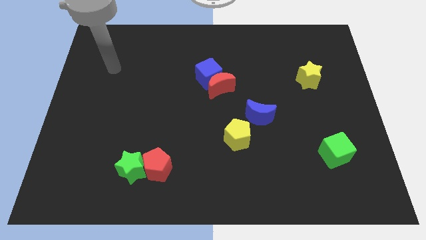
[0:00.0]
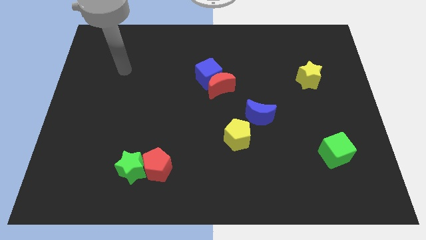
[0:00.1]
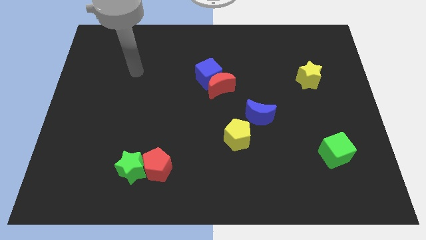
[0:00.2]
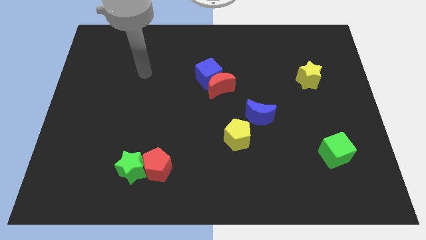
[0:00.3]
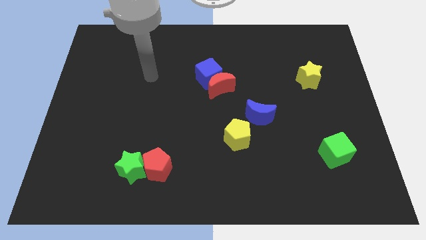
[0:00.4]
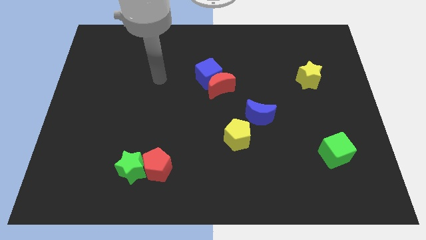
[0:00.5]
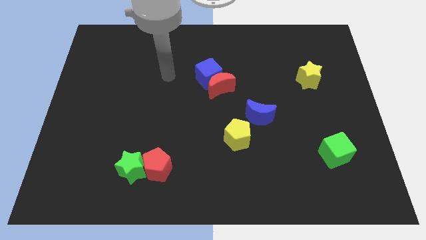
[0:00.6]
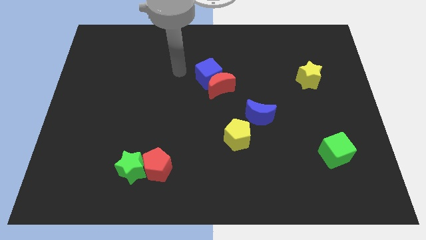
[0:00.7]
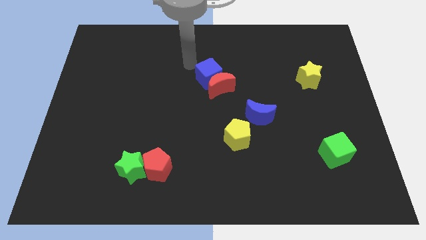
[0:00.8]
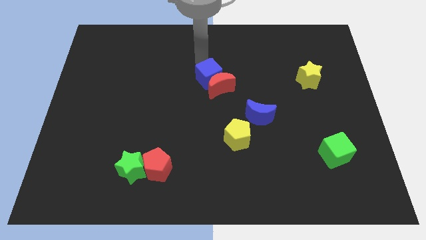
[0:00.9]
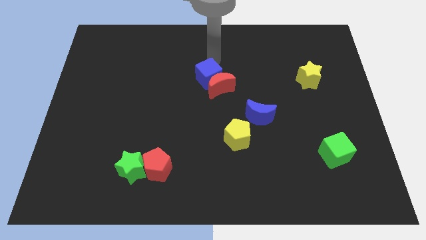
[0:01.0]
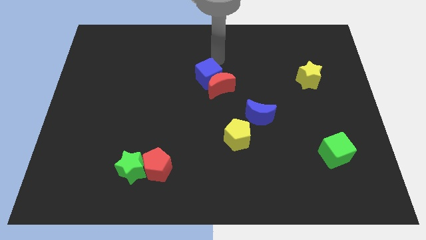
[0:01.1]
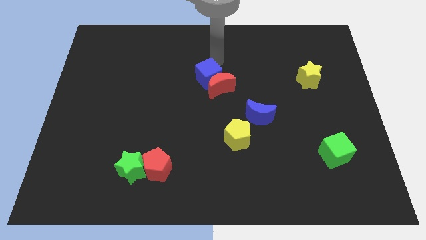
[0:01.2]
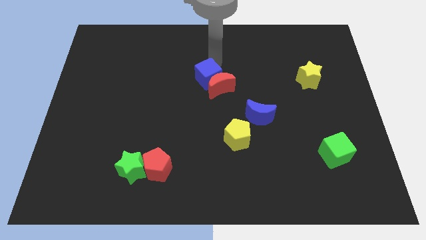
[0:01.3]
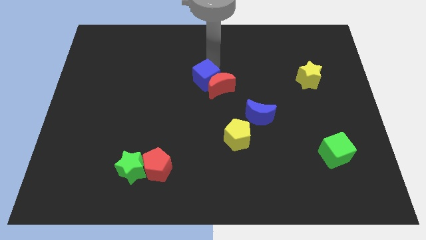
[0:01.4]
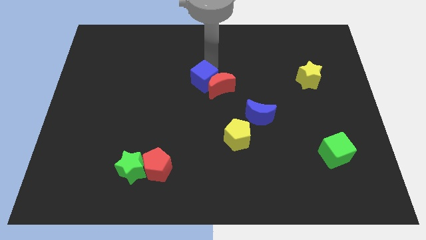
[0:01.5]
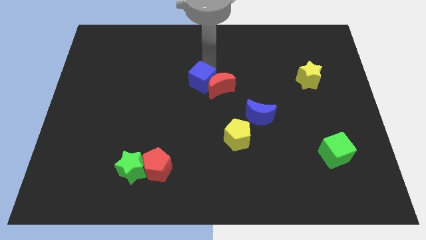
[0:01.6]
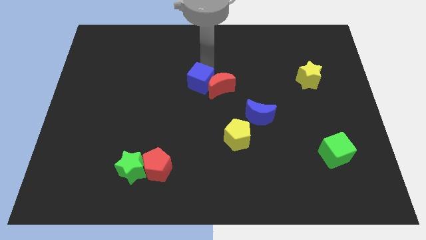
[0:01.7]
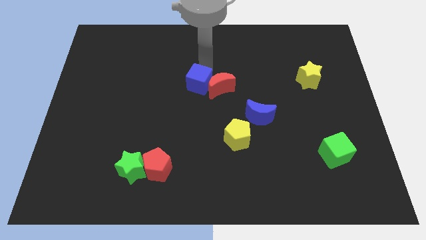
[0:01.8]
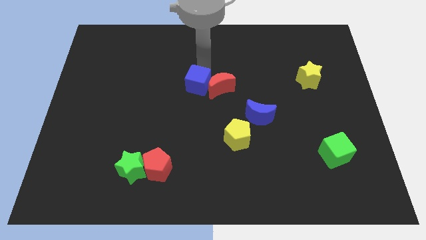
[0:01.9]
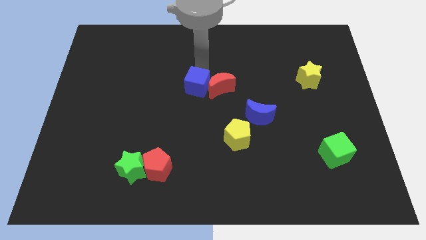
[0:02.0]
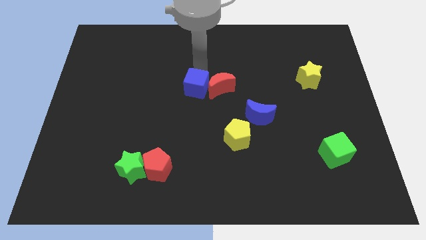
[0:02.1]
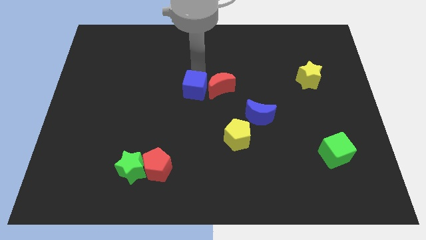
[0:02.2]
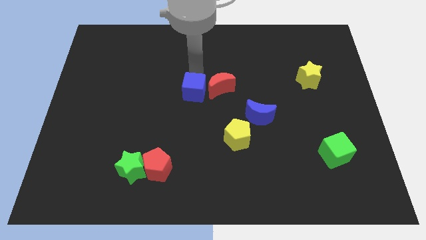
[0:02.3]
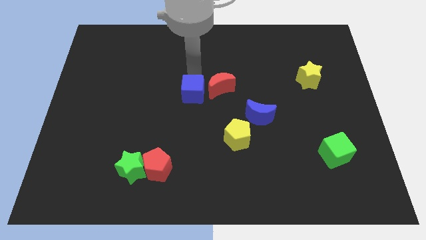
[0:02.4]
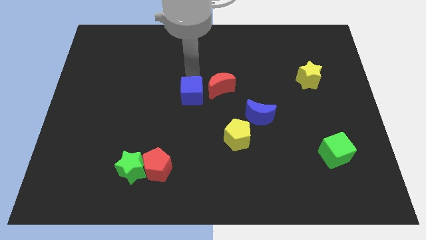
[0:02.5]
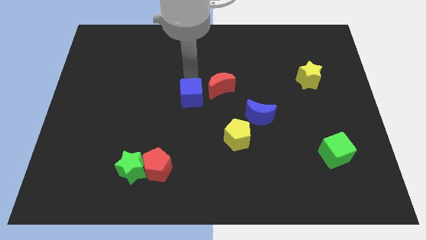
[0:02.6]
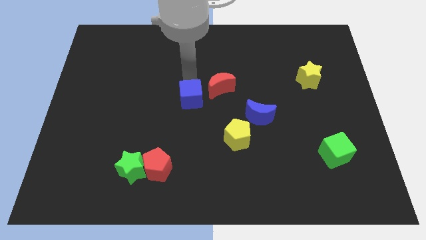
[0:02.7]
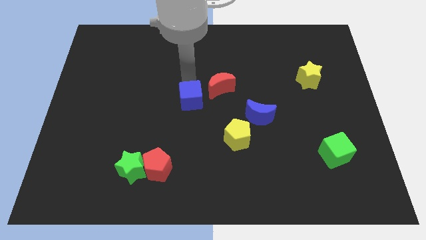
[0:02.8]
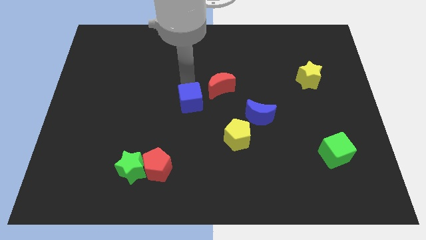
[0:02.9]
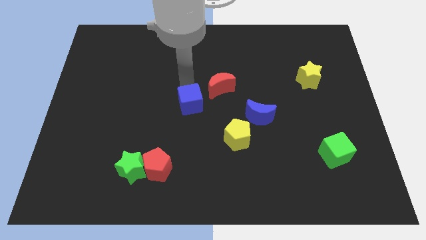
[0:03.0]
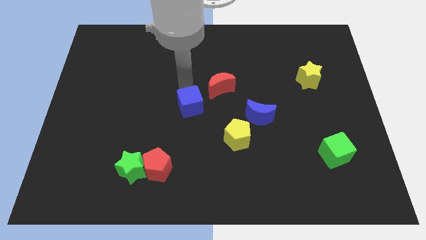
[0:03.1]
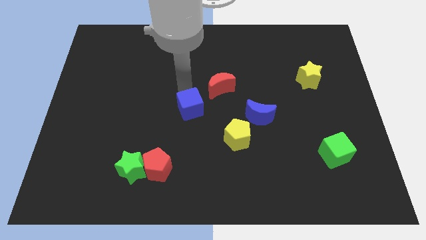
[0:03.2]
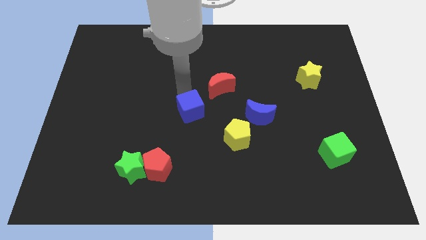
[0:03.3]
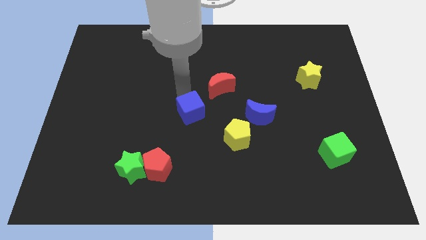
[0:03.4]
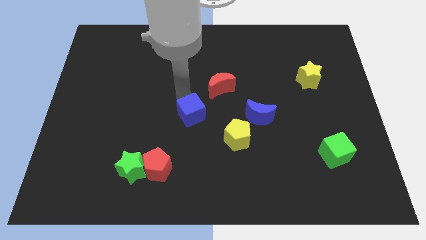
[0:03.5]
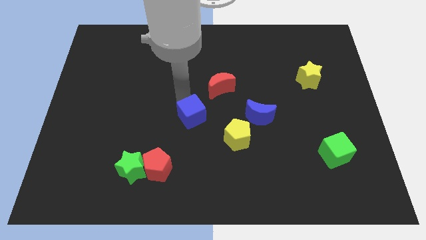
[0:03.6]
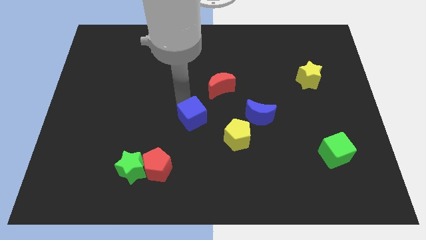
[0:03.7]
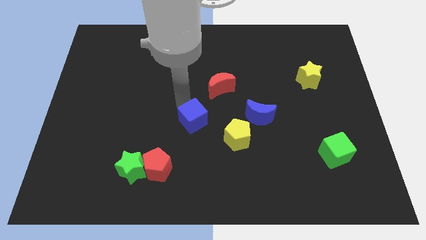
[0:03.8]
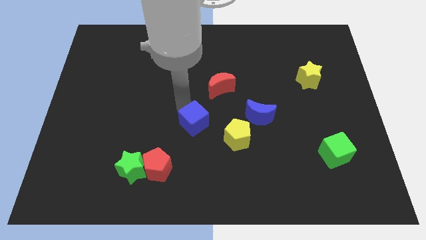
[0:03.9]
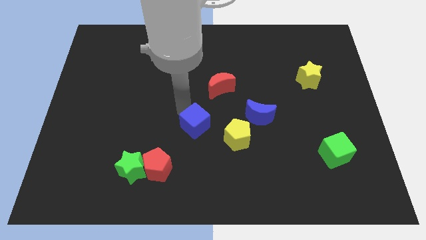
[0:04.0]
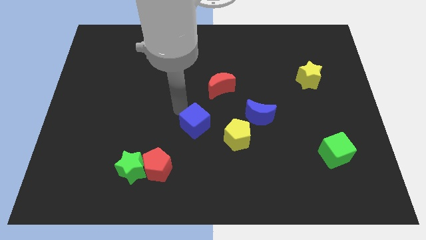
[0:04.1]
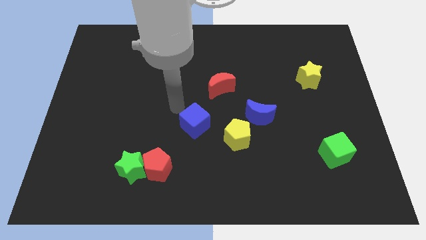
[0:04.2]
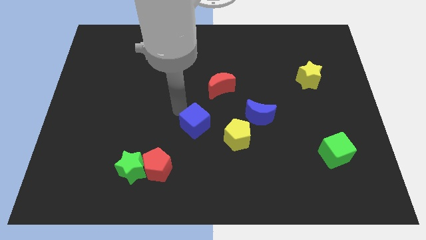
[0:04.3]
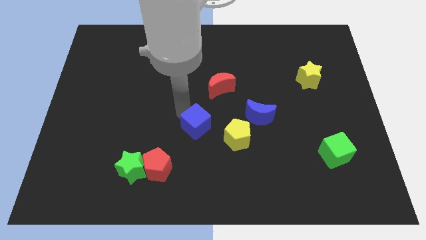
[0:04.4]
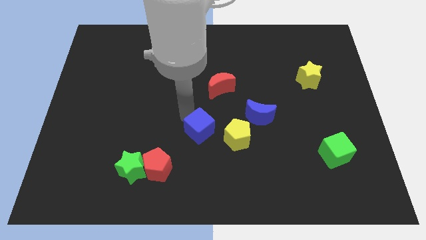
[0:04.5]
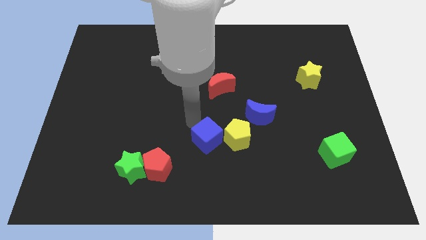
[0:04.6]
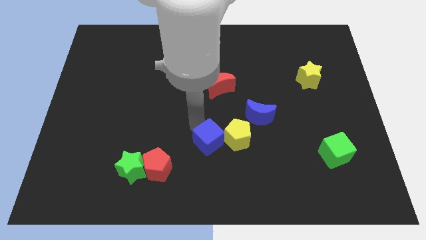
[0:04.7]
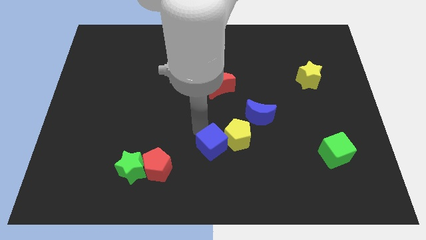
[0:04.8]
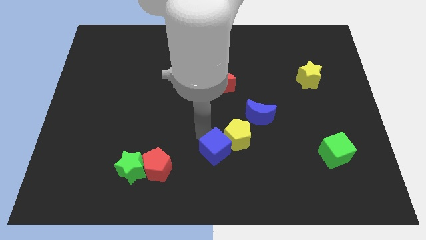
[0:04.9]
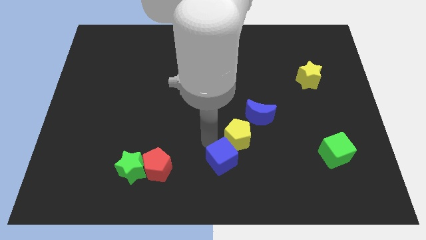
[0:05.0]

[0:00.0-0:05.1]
slide the blue cube below the yellow pentagon

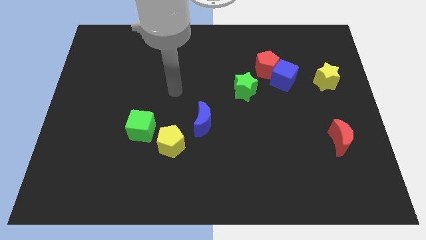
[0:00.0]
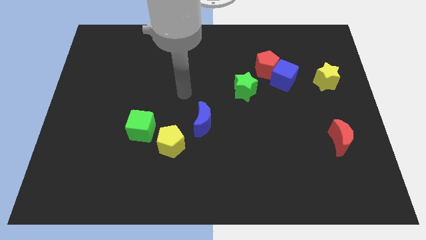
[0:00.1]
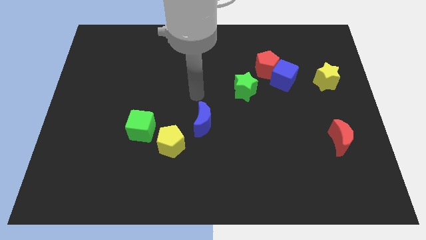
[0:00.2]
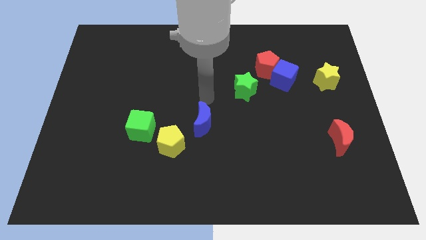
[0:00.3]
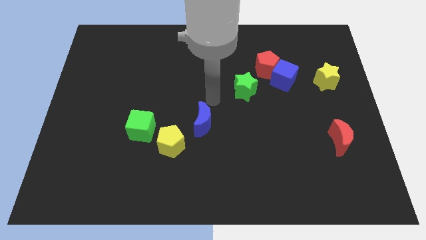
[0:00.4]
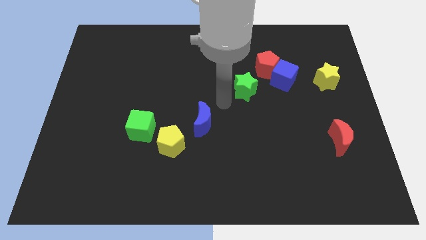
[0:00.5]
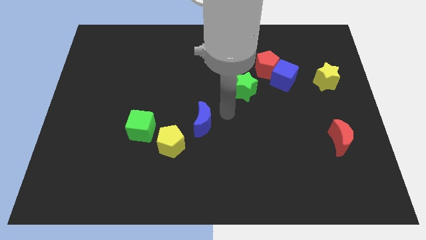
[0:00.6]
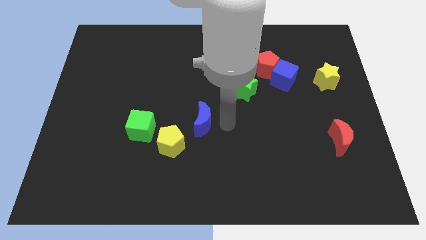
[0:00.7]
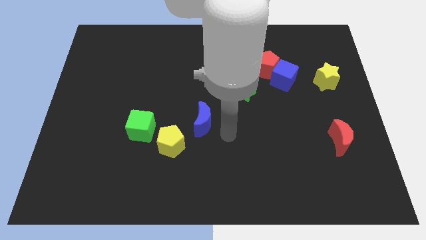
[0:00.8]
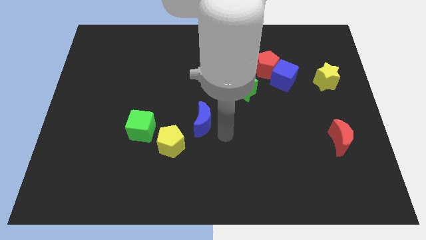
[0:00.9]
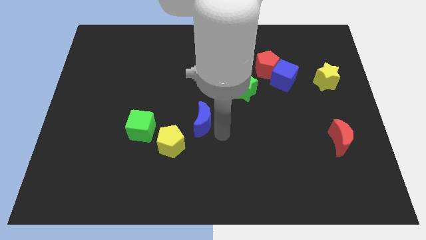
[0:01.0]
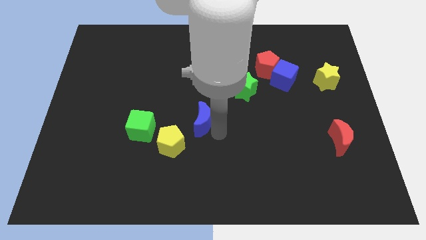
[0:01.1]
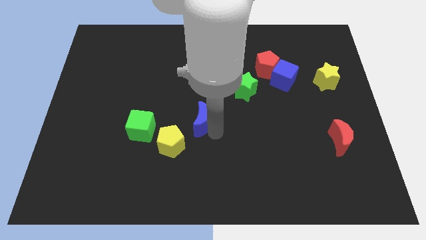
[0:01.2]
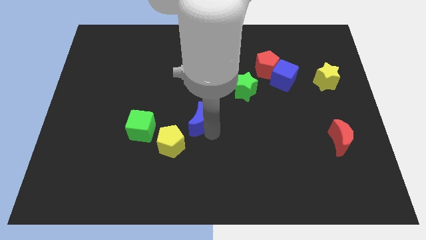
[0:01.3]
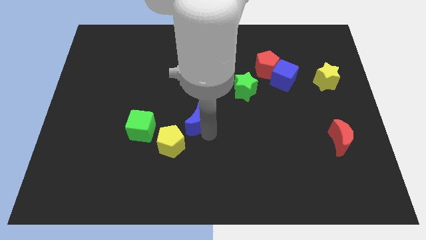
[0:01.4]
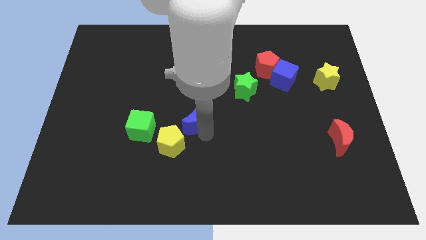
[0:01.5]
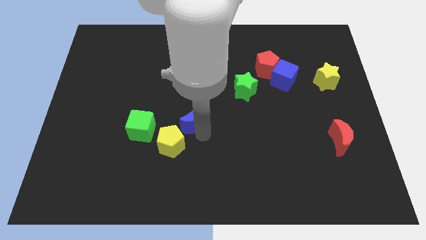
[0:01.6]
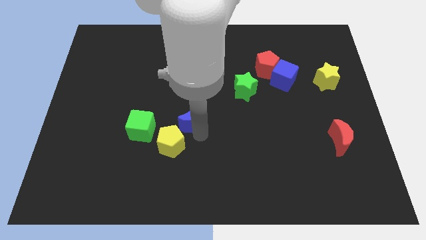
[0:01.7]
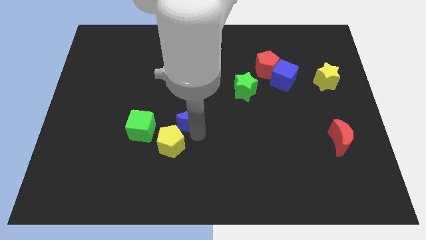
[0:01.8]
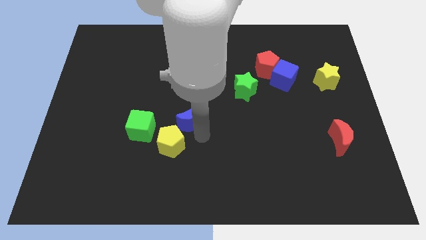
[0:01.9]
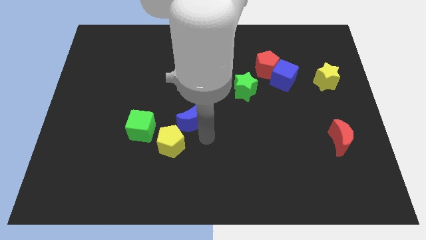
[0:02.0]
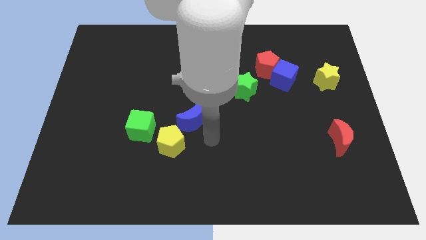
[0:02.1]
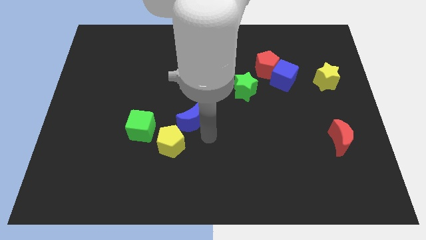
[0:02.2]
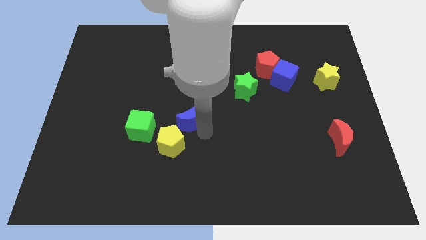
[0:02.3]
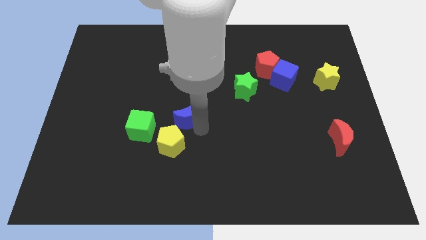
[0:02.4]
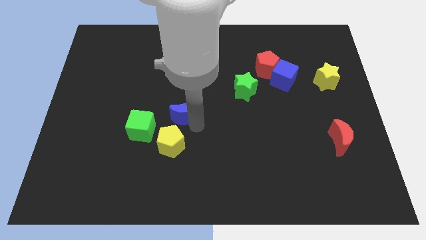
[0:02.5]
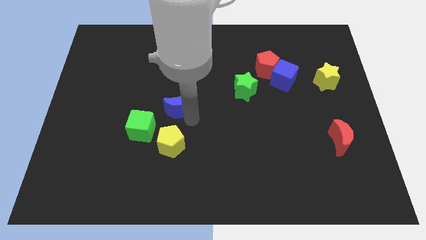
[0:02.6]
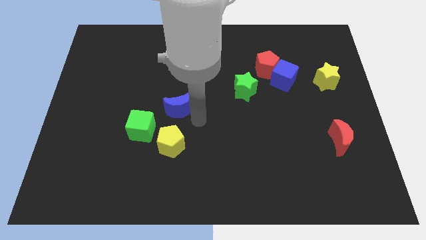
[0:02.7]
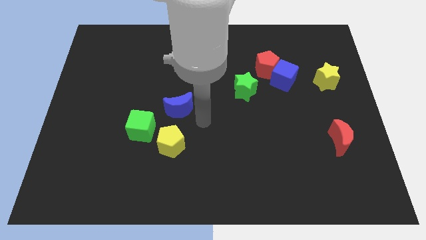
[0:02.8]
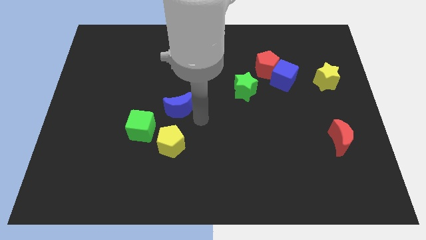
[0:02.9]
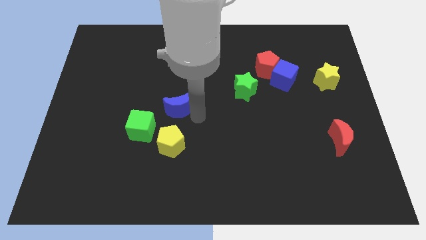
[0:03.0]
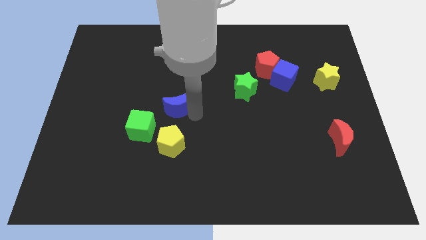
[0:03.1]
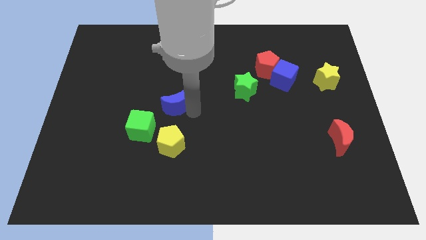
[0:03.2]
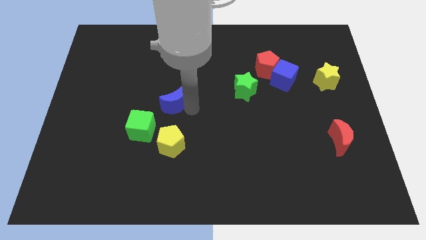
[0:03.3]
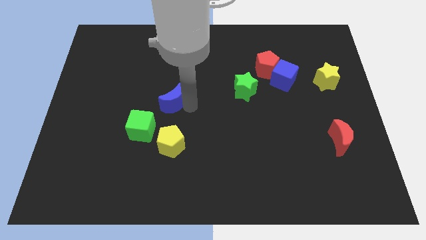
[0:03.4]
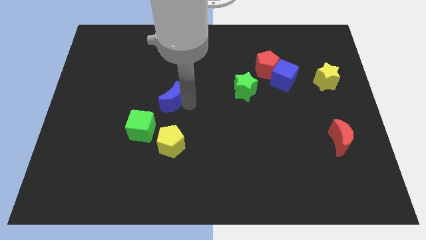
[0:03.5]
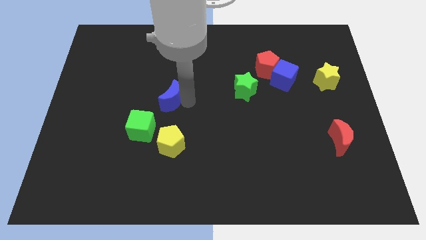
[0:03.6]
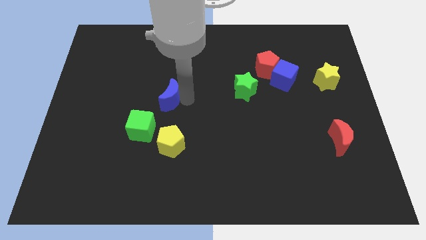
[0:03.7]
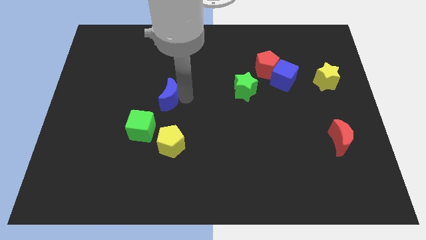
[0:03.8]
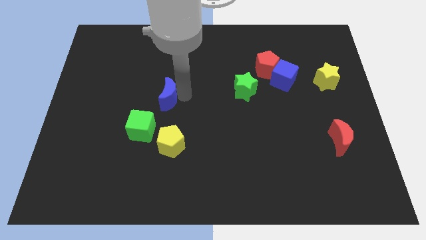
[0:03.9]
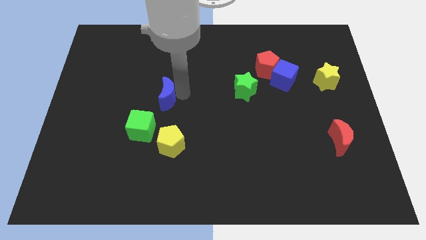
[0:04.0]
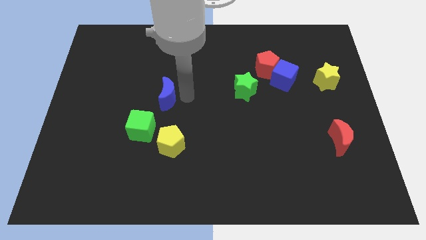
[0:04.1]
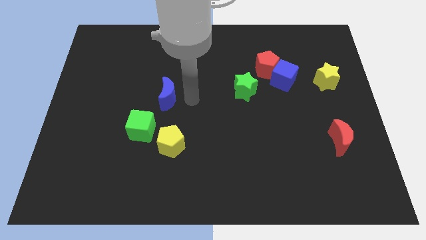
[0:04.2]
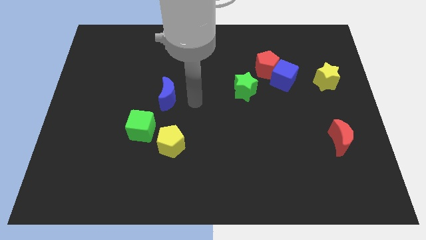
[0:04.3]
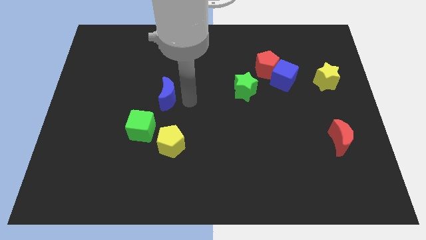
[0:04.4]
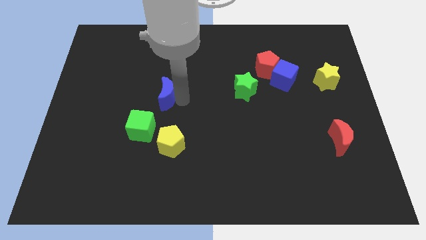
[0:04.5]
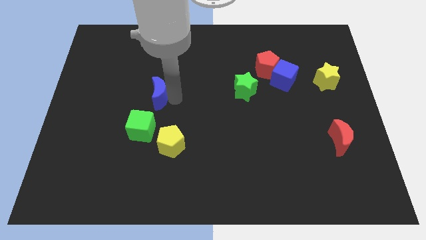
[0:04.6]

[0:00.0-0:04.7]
move the blue moon to the top side of the green cube
